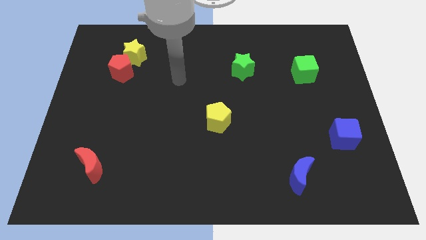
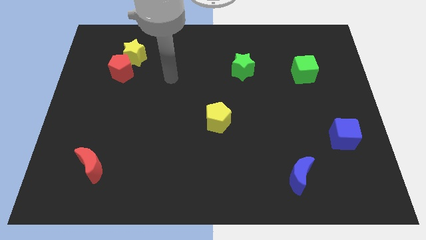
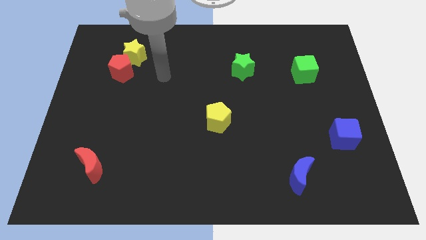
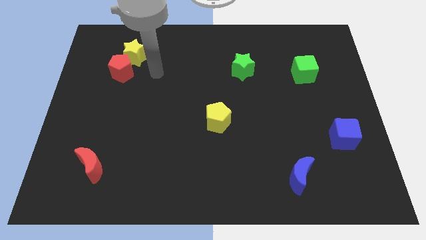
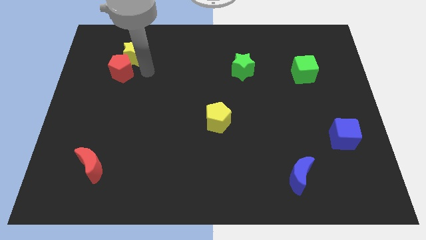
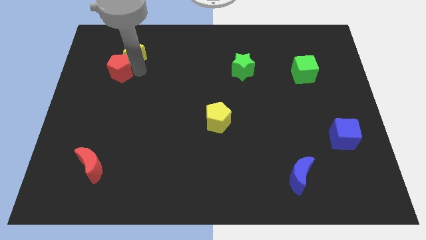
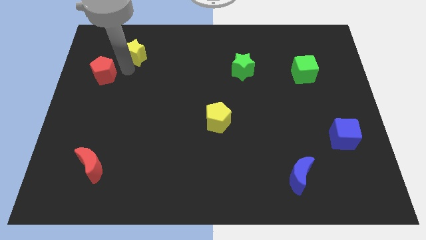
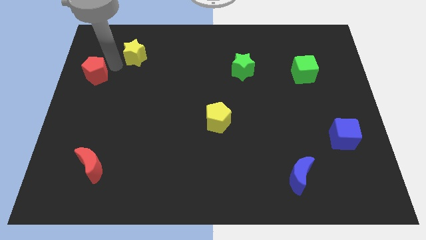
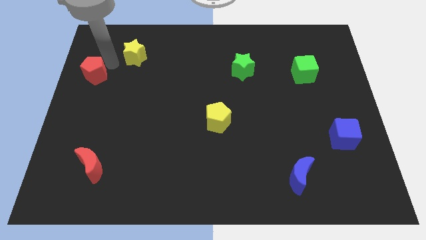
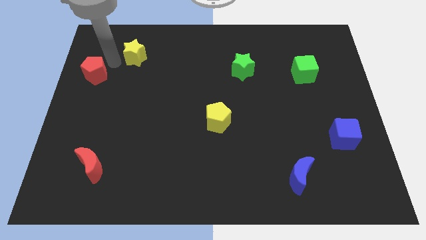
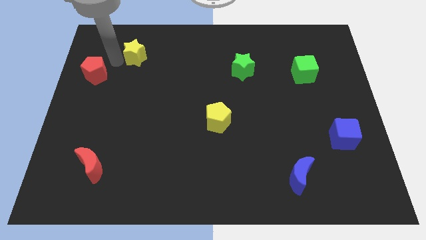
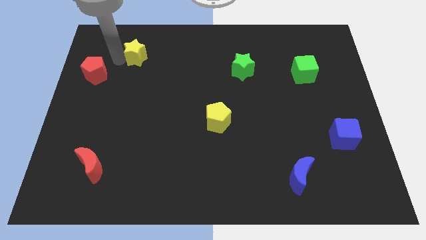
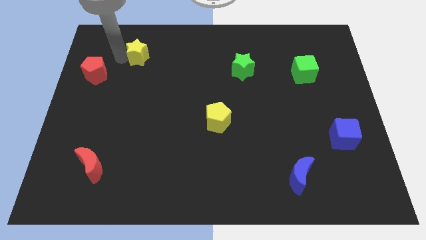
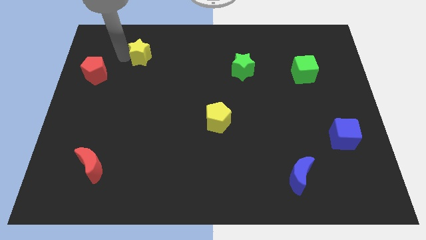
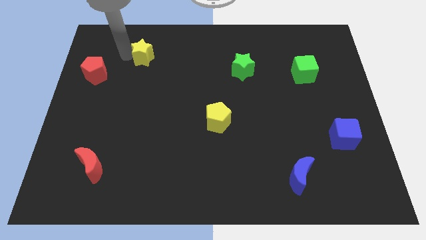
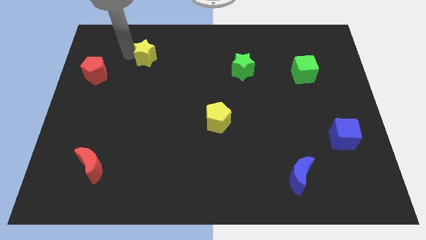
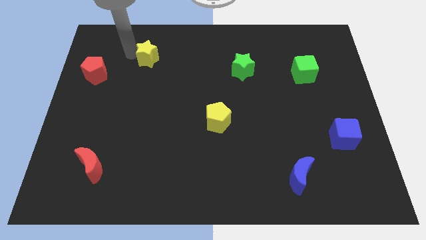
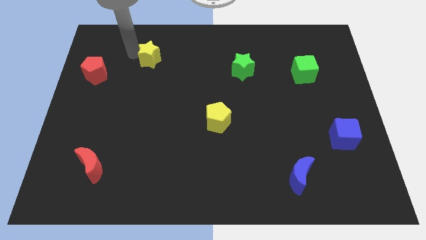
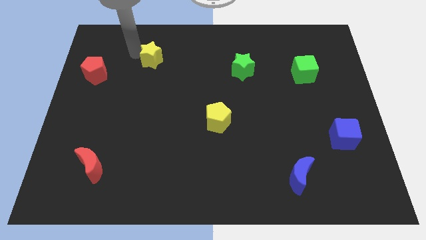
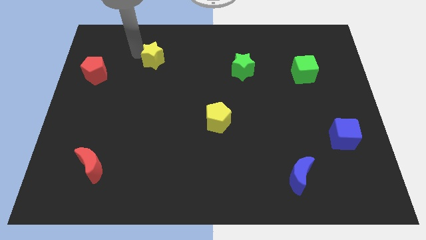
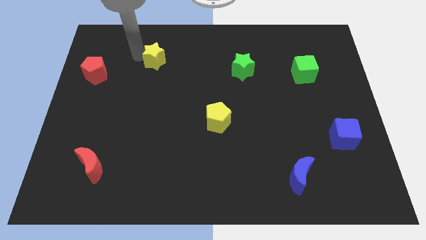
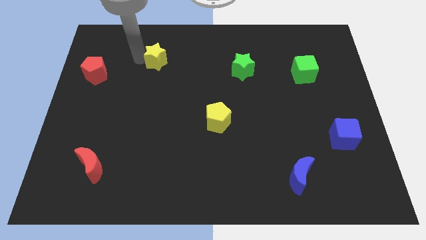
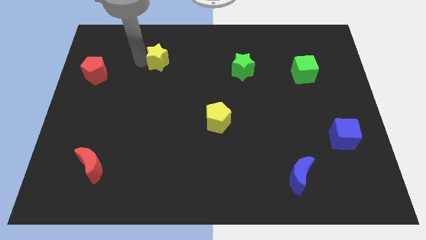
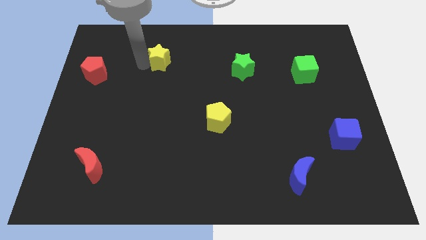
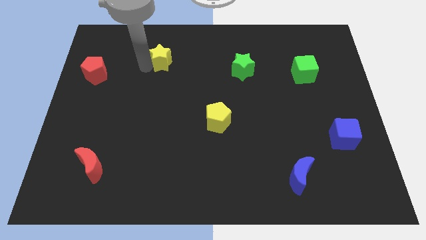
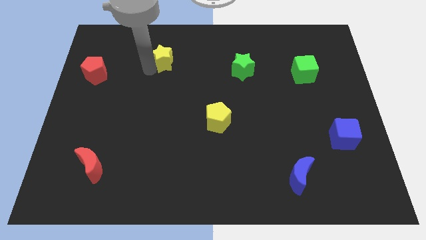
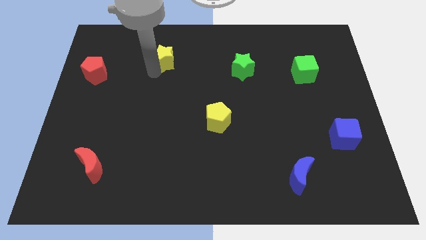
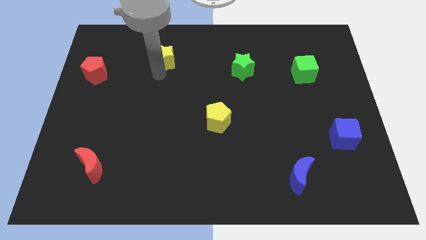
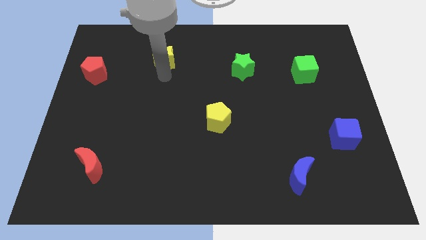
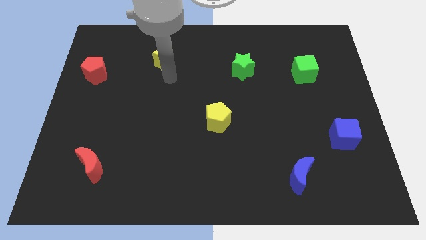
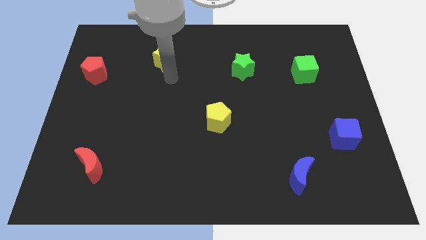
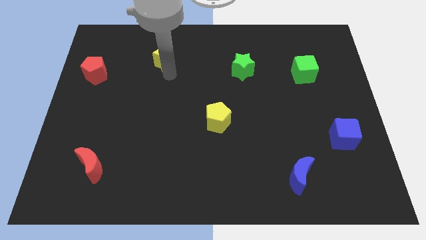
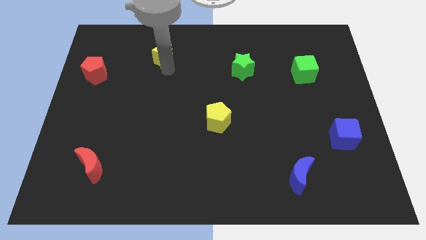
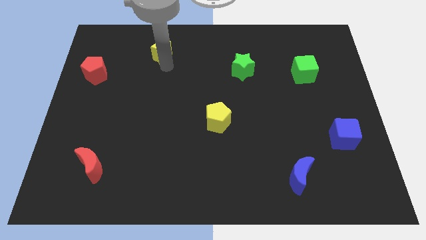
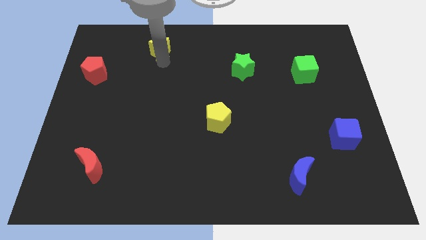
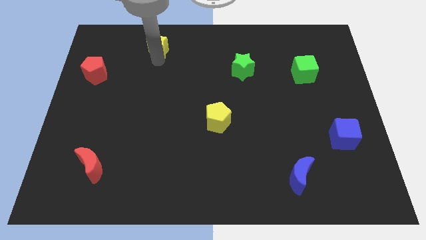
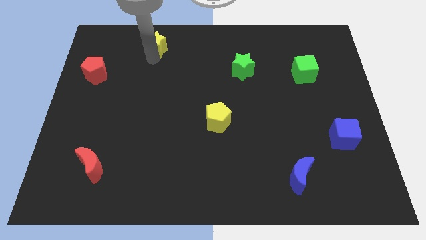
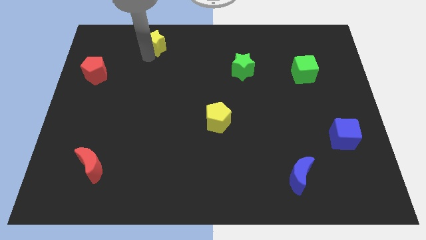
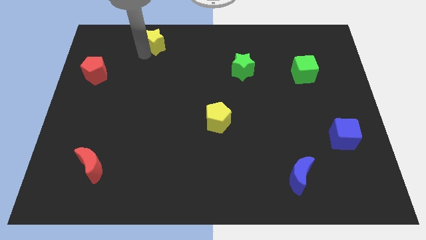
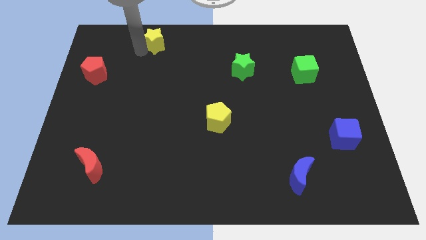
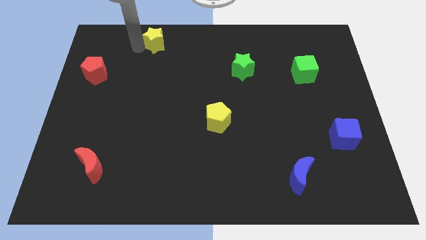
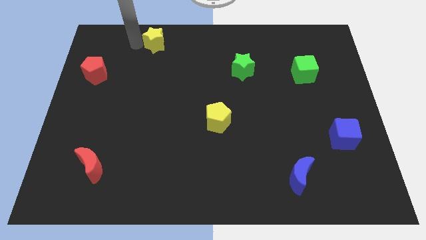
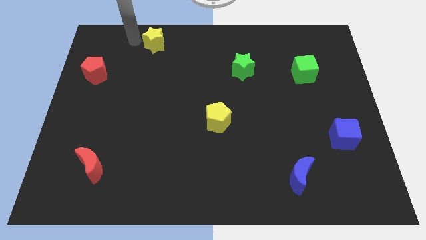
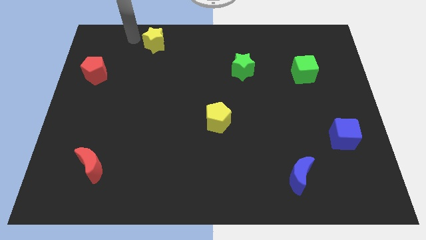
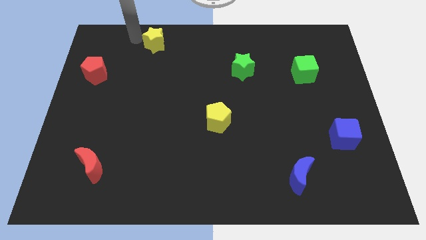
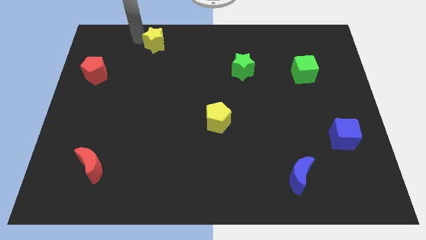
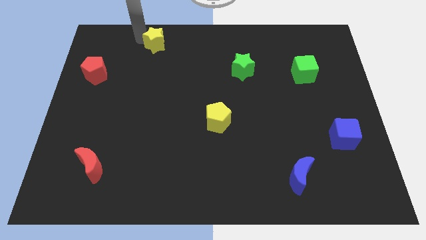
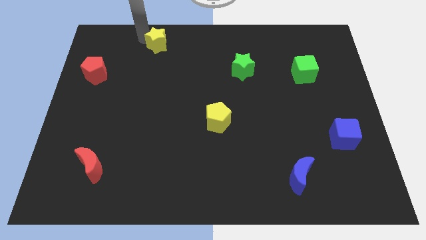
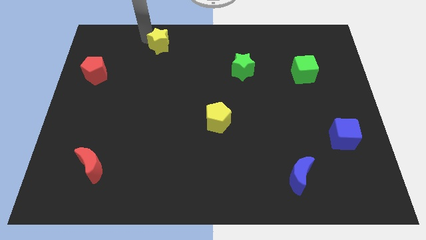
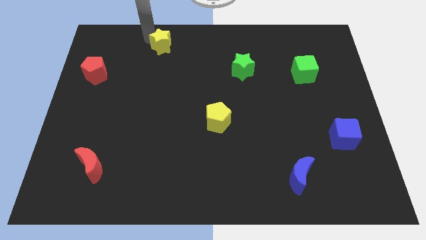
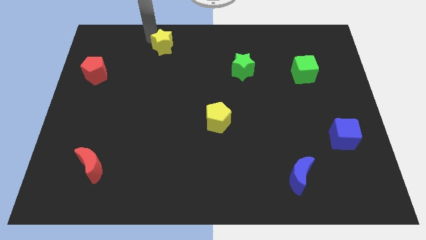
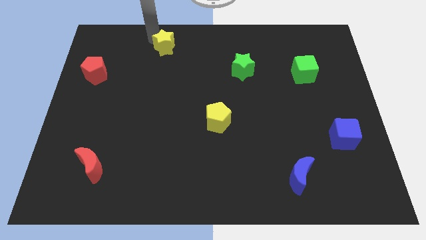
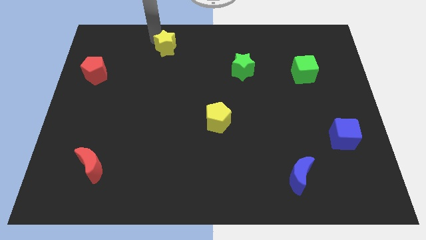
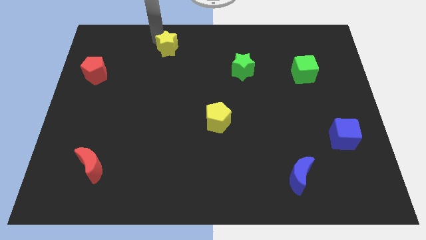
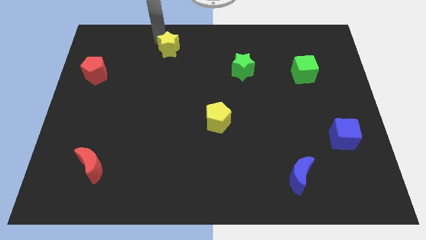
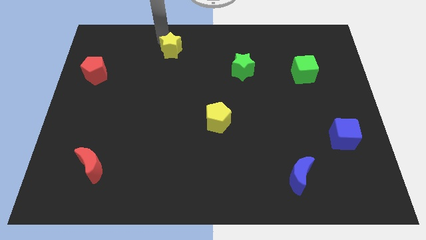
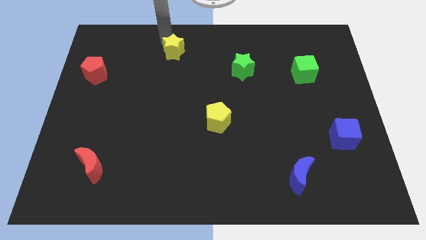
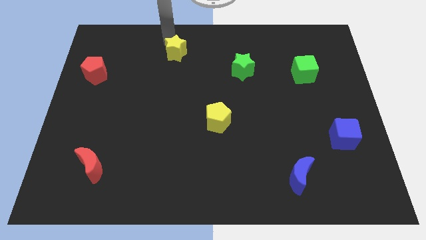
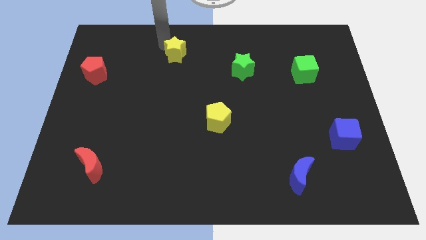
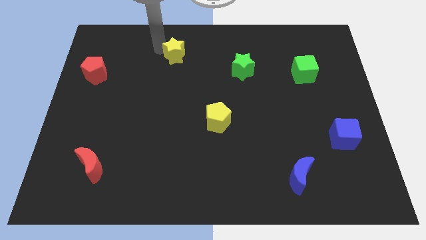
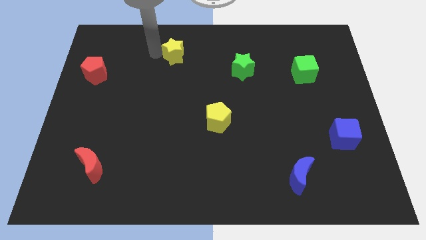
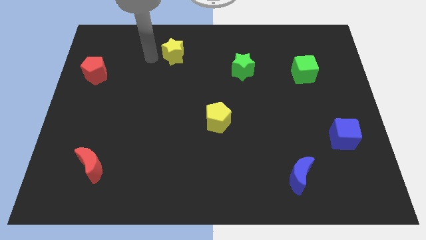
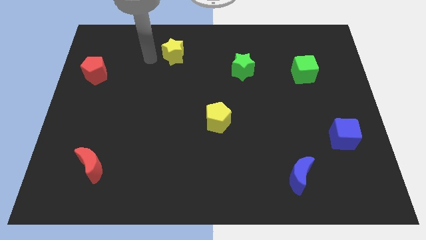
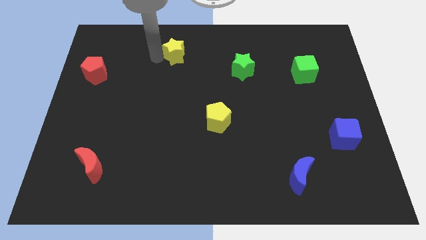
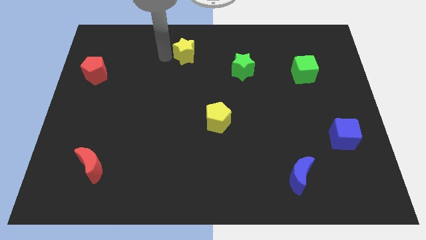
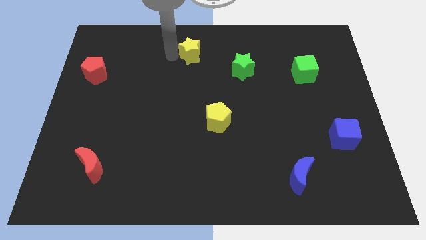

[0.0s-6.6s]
slide the yellow star to the top

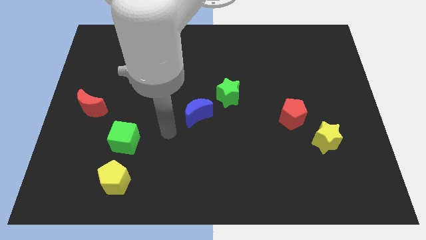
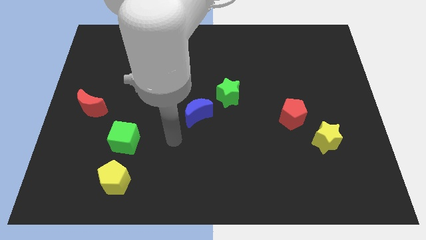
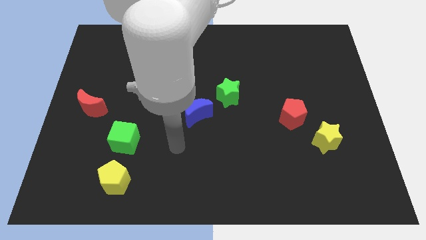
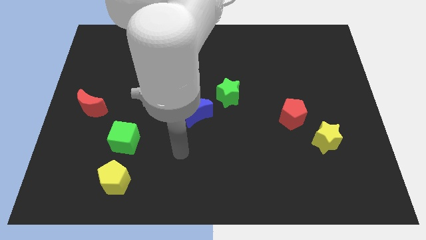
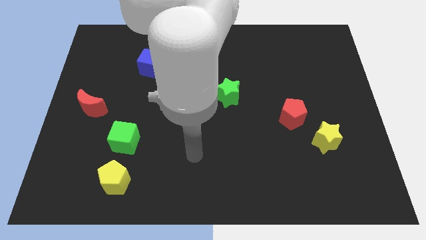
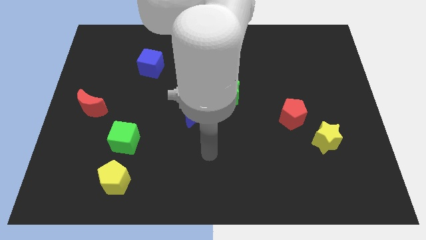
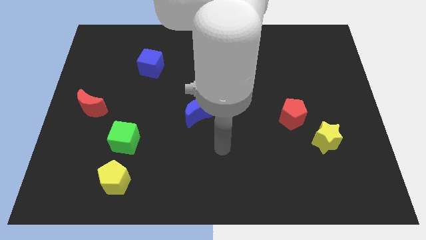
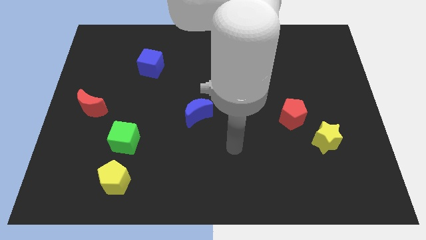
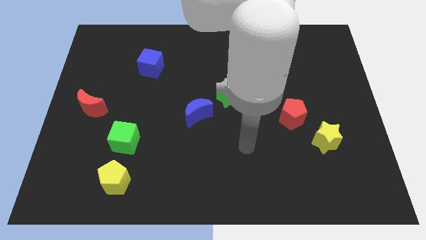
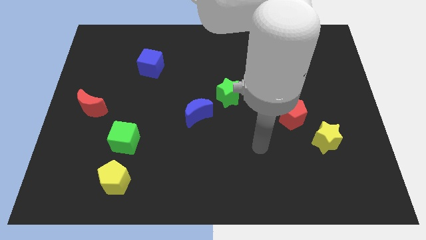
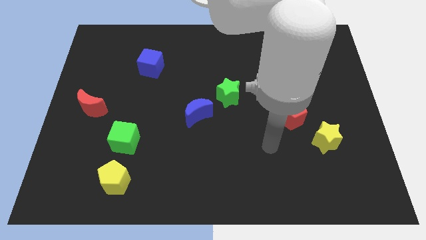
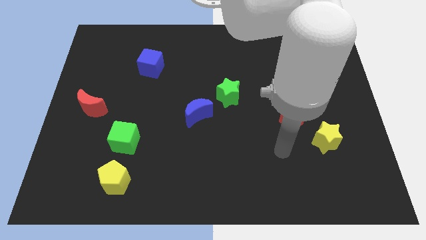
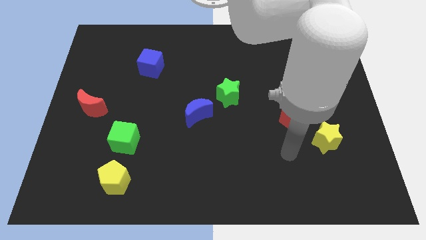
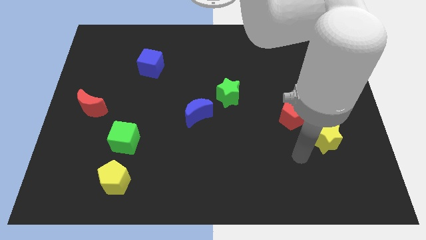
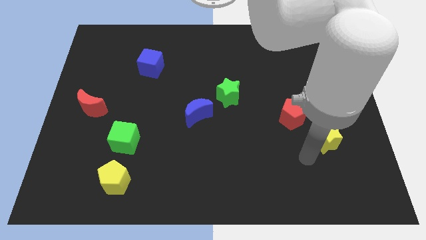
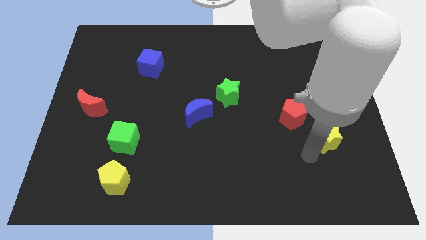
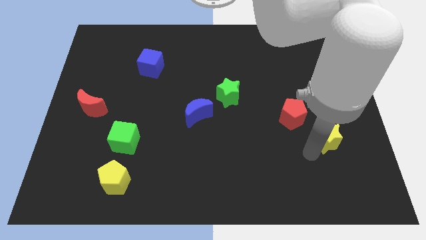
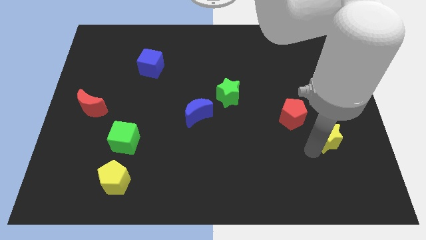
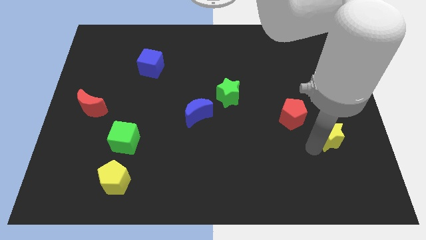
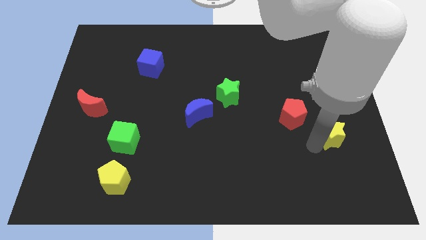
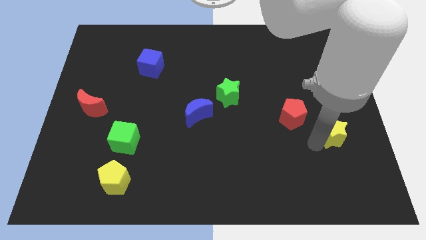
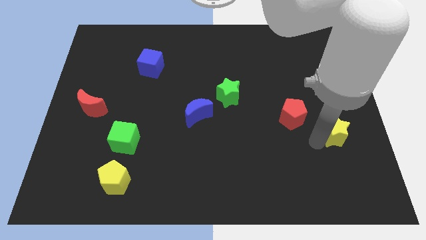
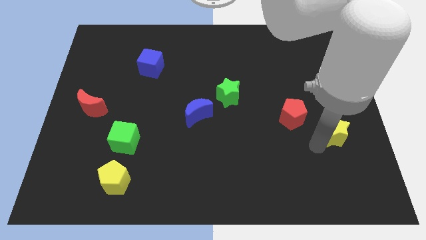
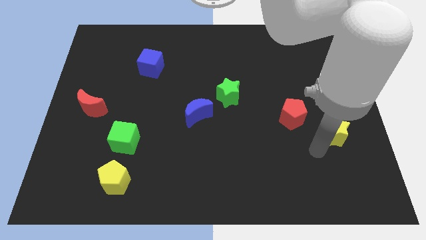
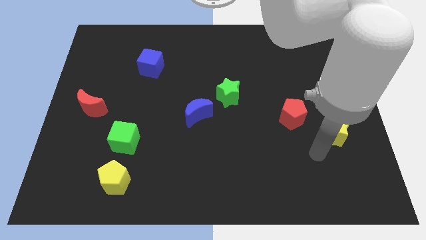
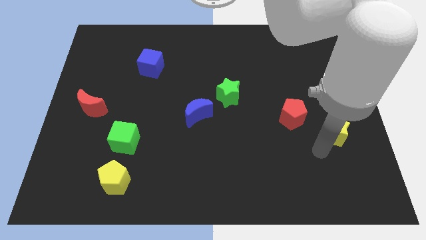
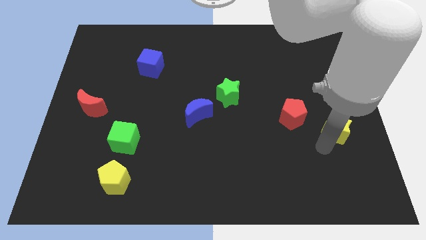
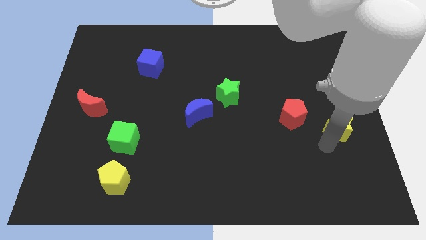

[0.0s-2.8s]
slide the yellow star to the right side of the board
